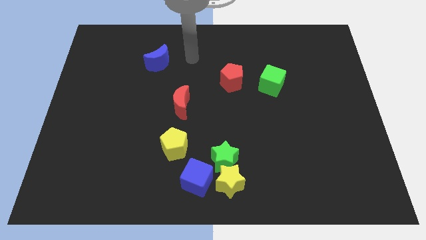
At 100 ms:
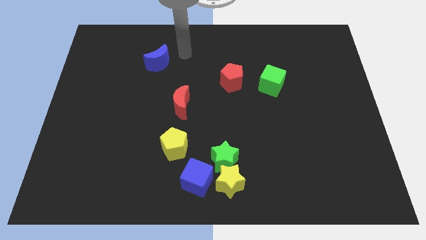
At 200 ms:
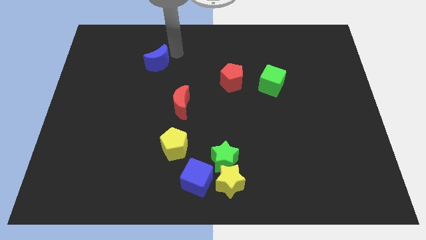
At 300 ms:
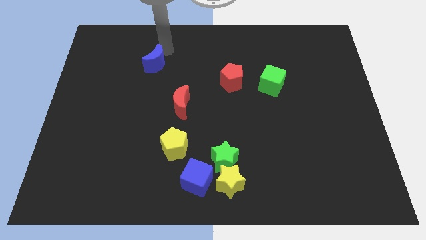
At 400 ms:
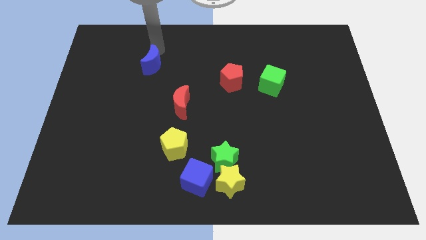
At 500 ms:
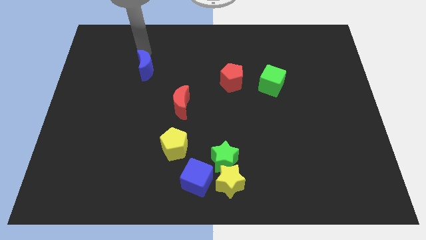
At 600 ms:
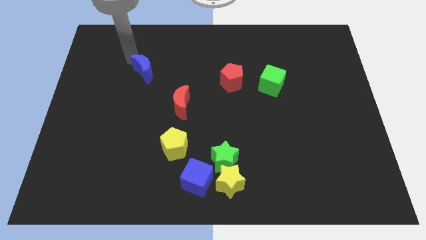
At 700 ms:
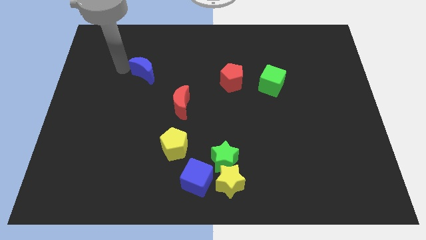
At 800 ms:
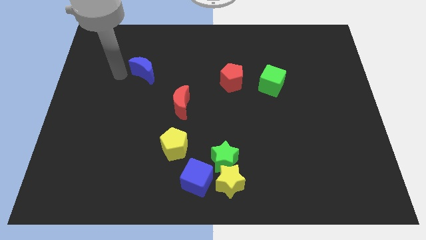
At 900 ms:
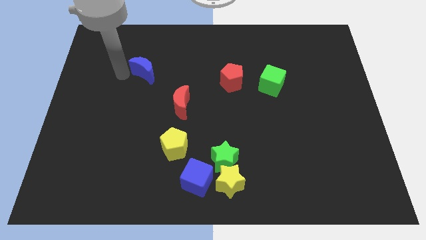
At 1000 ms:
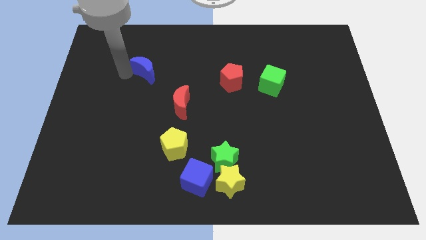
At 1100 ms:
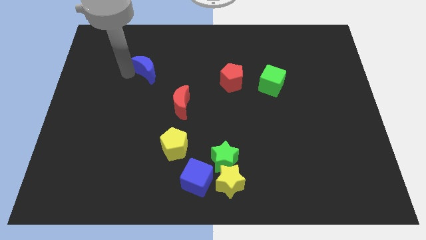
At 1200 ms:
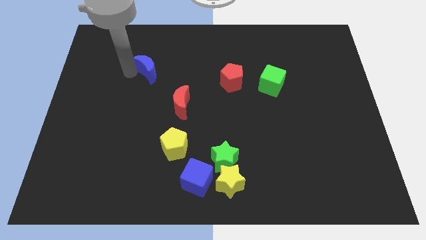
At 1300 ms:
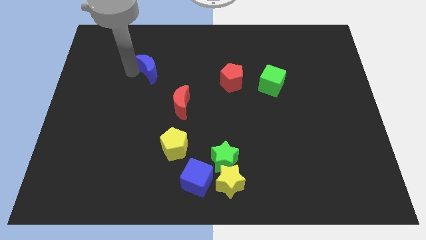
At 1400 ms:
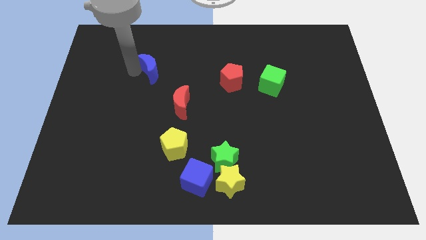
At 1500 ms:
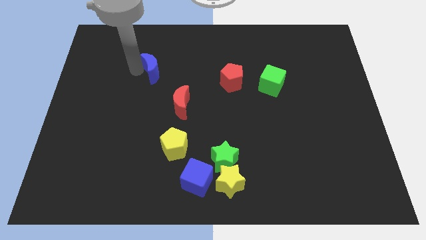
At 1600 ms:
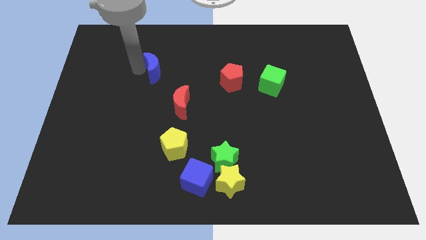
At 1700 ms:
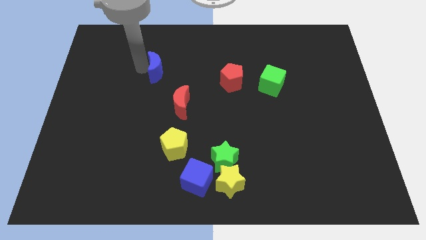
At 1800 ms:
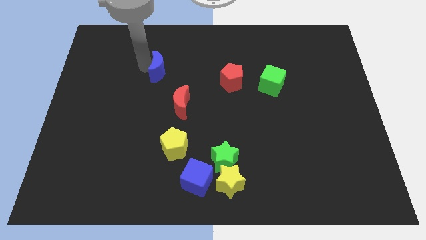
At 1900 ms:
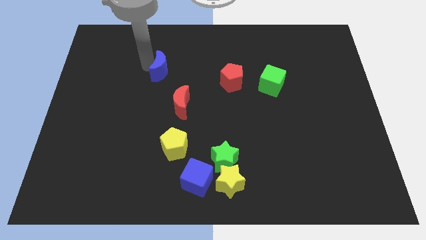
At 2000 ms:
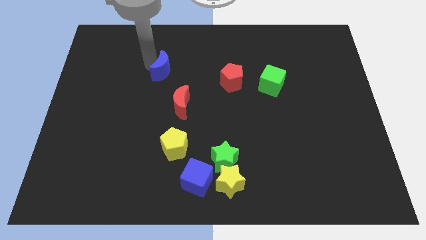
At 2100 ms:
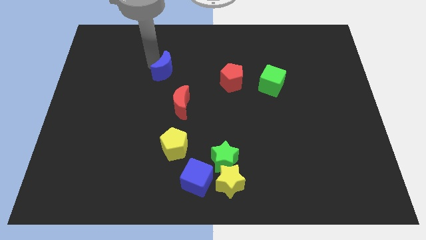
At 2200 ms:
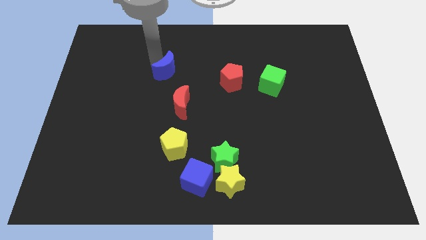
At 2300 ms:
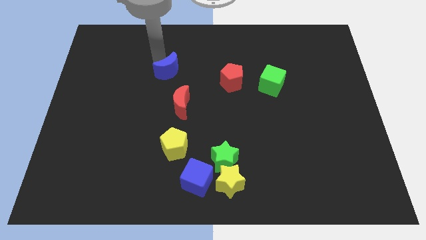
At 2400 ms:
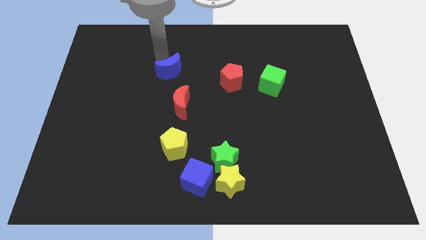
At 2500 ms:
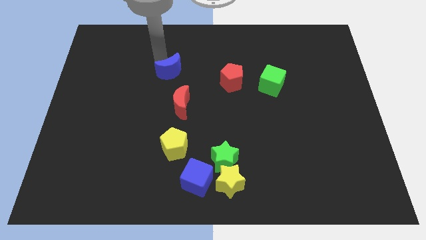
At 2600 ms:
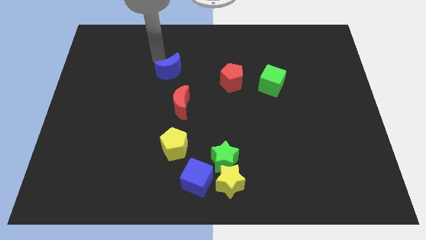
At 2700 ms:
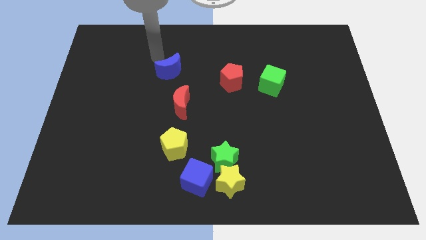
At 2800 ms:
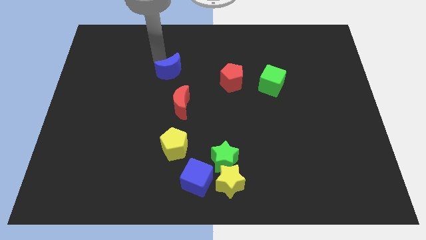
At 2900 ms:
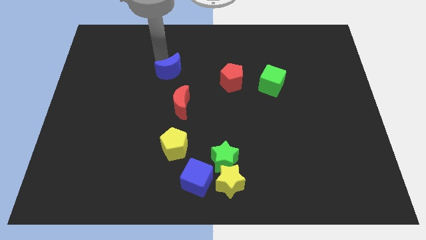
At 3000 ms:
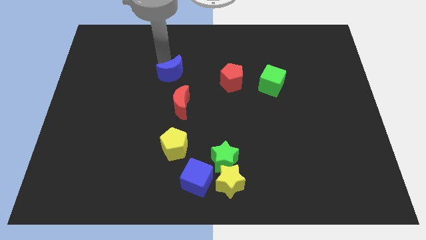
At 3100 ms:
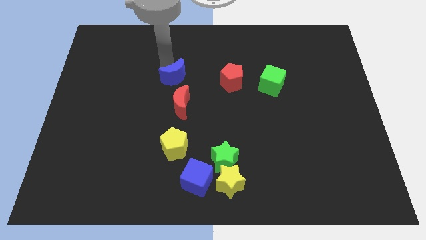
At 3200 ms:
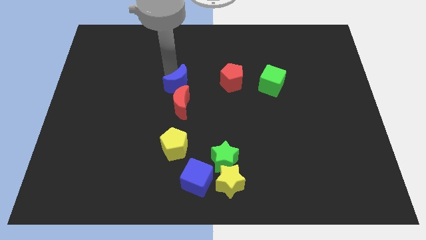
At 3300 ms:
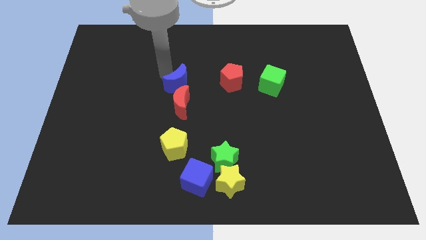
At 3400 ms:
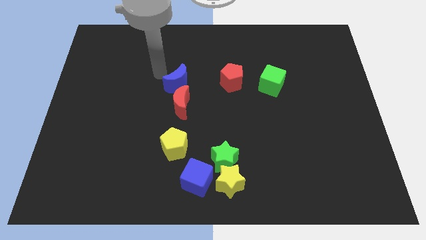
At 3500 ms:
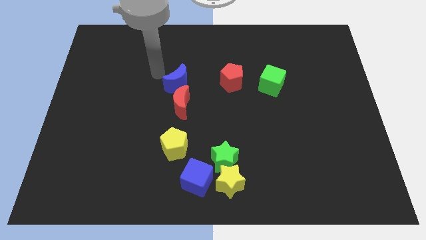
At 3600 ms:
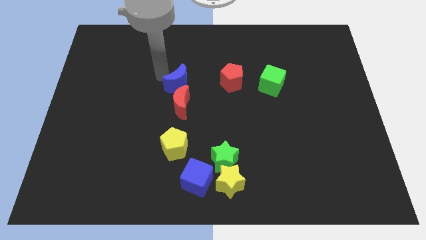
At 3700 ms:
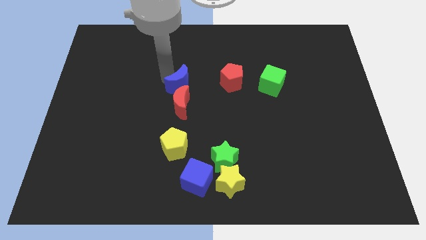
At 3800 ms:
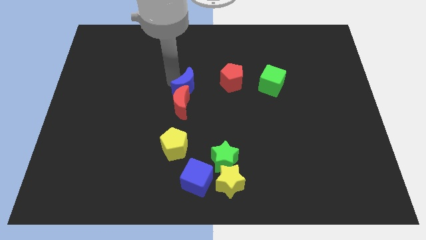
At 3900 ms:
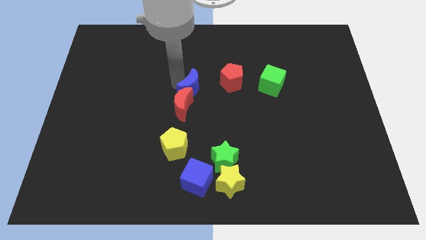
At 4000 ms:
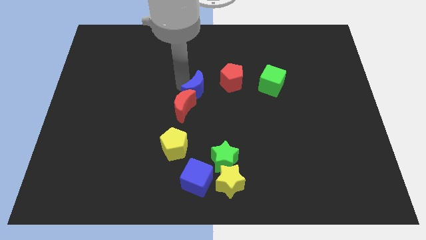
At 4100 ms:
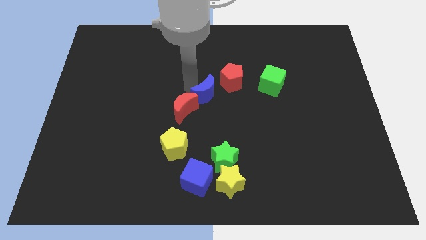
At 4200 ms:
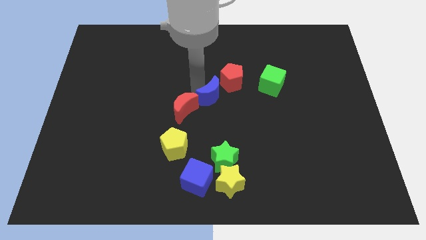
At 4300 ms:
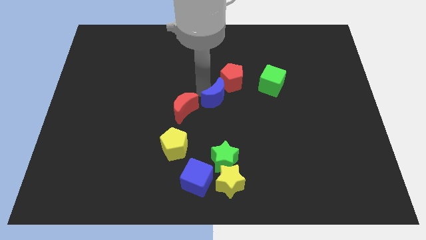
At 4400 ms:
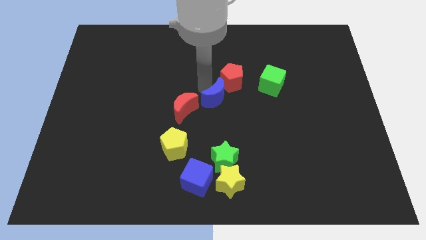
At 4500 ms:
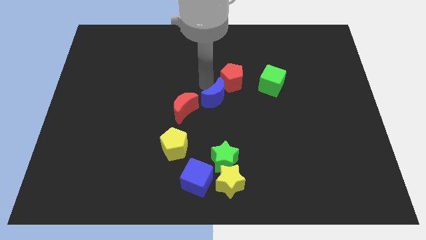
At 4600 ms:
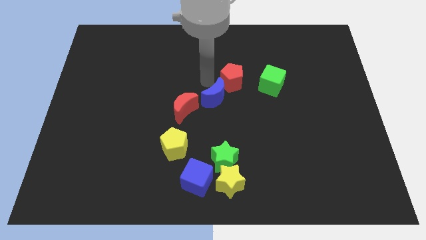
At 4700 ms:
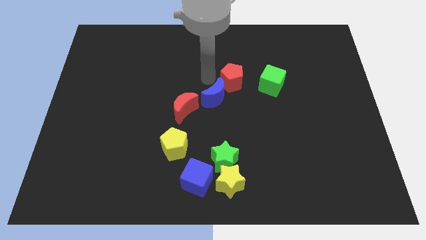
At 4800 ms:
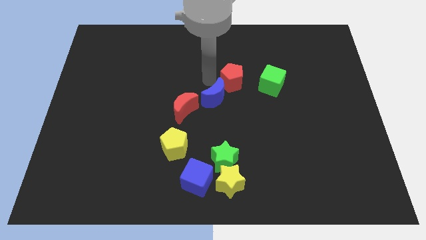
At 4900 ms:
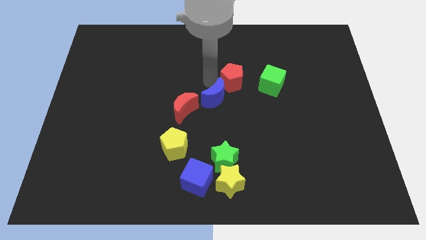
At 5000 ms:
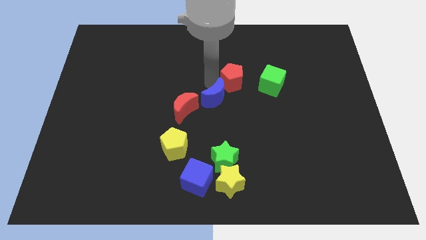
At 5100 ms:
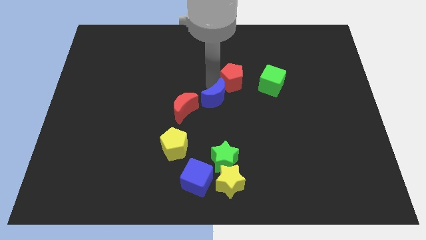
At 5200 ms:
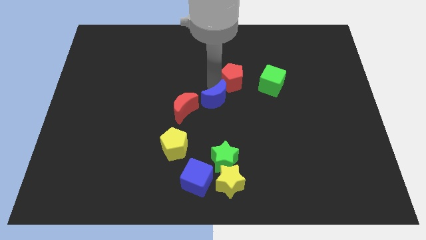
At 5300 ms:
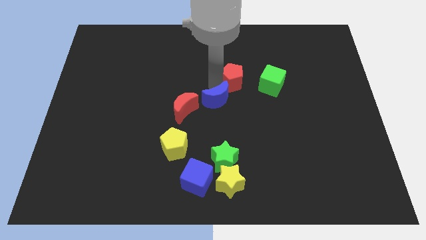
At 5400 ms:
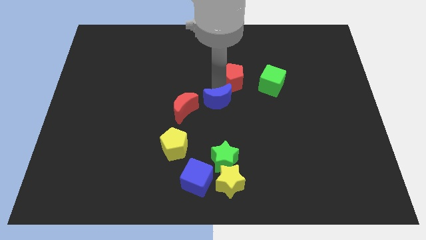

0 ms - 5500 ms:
push the blue moon down and then right

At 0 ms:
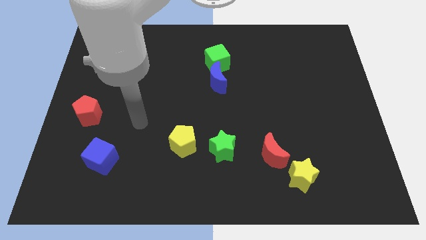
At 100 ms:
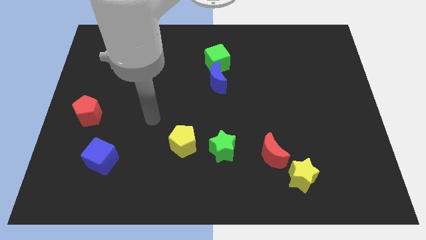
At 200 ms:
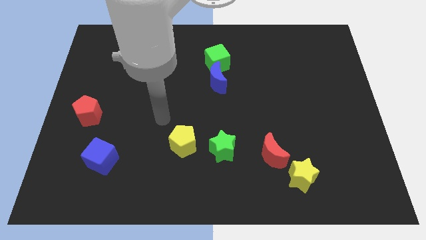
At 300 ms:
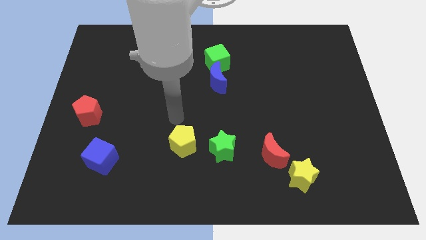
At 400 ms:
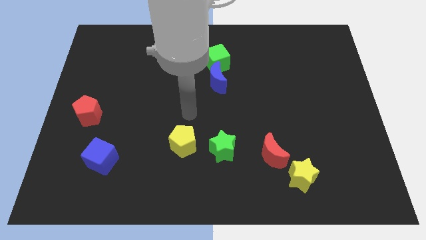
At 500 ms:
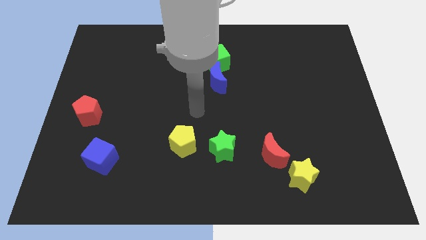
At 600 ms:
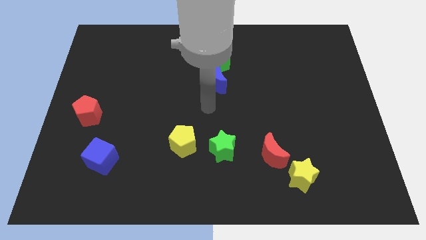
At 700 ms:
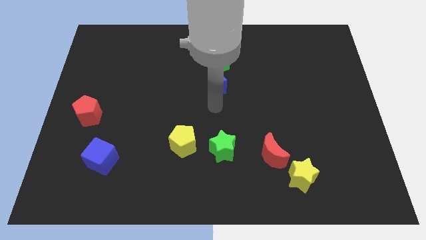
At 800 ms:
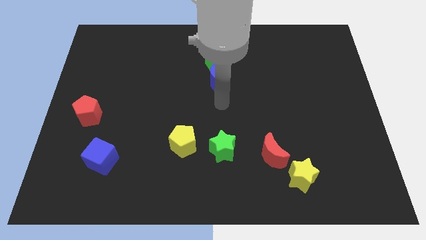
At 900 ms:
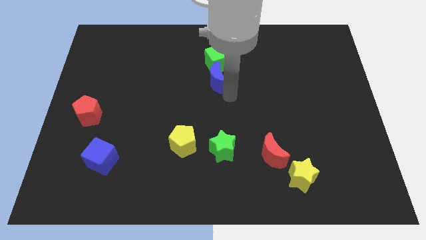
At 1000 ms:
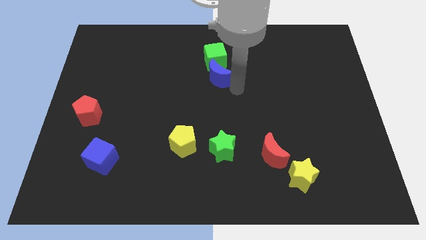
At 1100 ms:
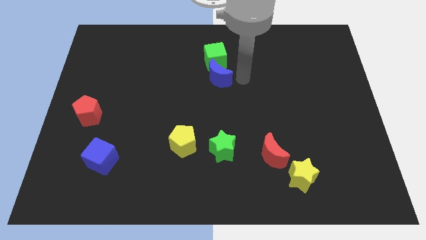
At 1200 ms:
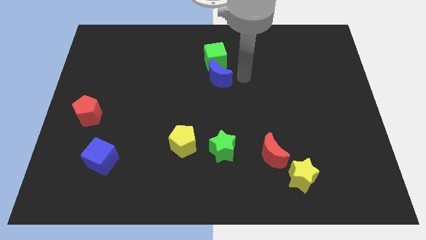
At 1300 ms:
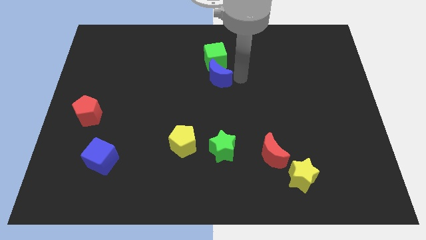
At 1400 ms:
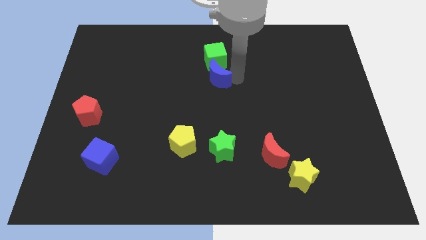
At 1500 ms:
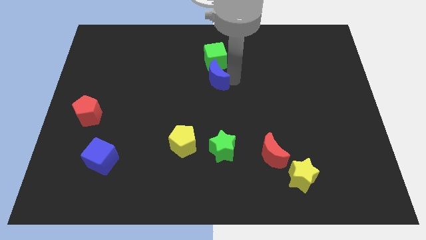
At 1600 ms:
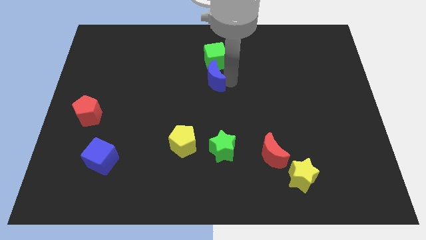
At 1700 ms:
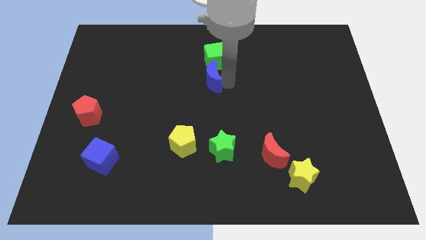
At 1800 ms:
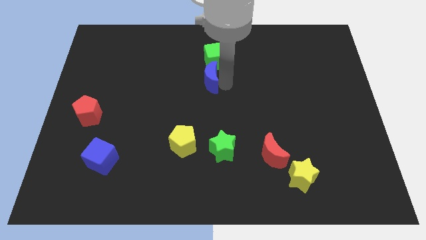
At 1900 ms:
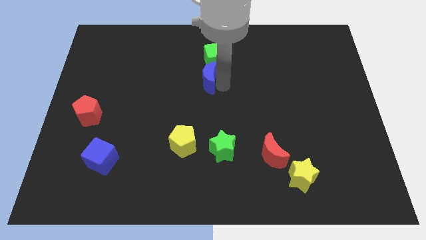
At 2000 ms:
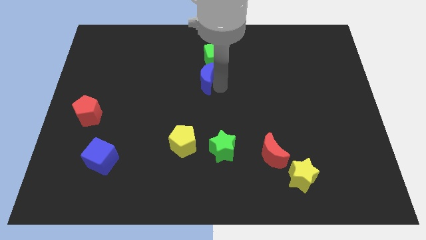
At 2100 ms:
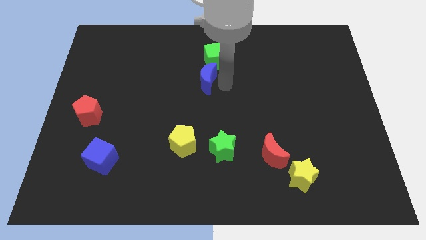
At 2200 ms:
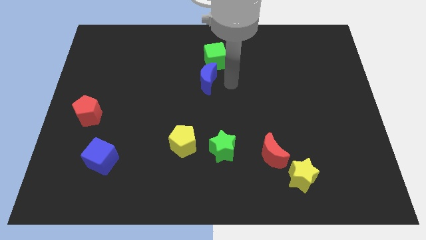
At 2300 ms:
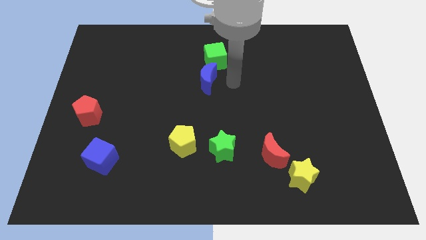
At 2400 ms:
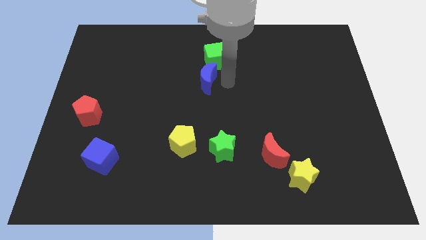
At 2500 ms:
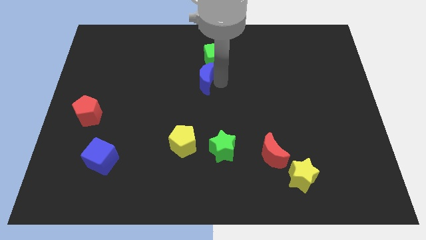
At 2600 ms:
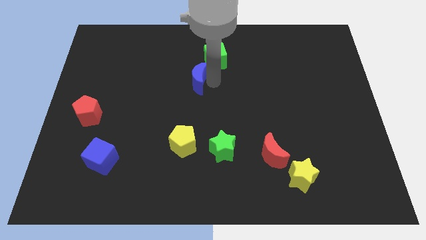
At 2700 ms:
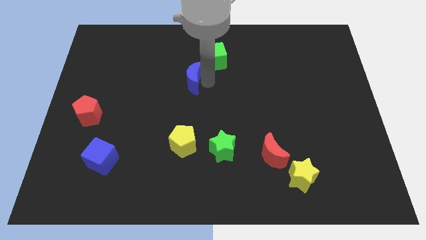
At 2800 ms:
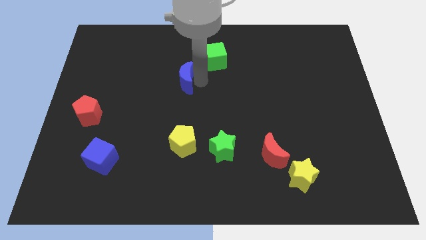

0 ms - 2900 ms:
slide the blue moon a bit to the left

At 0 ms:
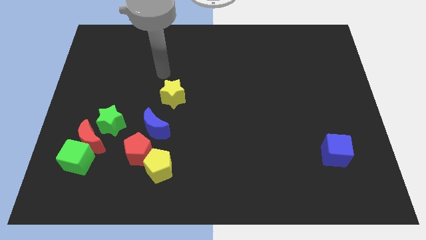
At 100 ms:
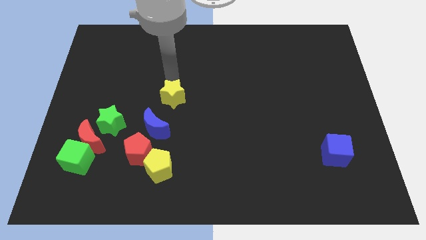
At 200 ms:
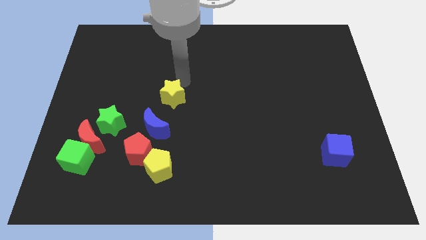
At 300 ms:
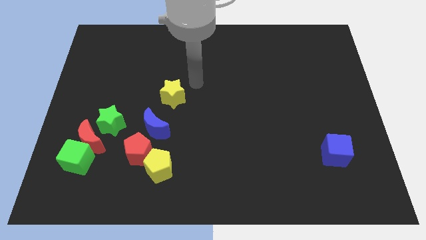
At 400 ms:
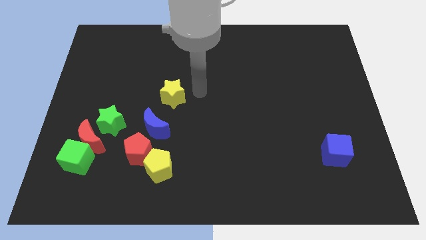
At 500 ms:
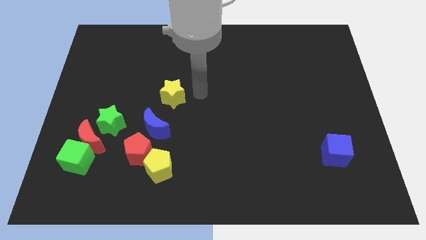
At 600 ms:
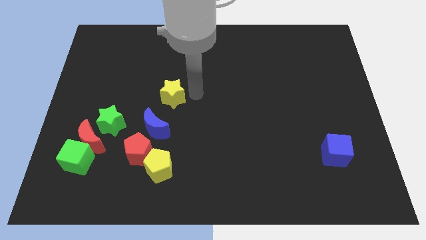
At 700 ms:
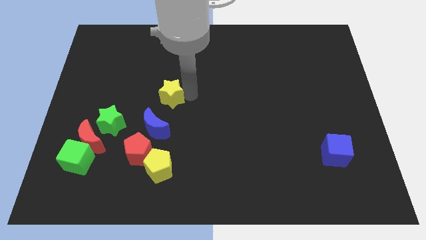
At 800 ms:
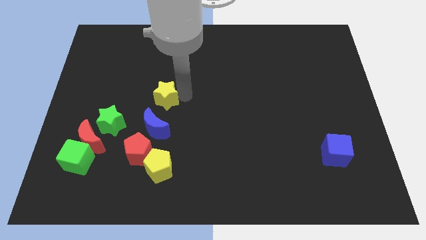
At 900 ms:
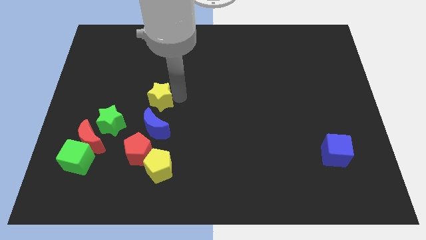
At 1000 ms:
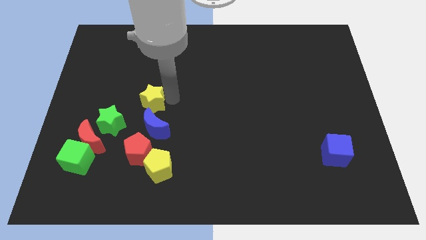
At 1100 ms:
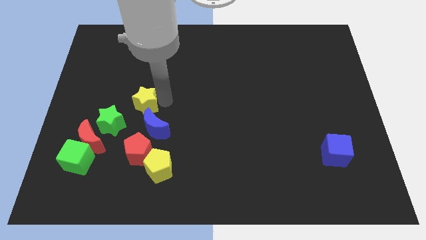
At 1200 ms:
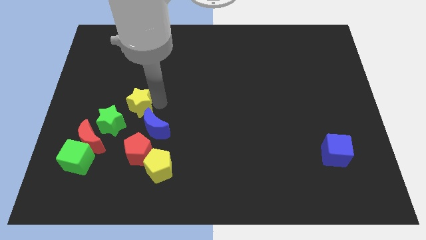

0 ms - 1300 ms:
push the yellow star to the left a bit
